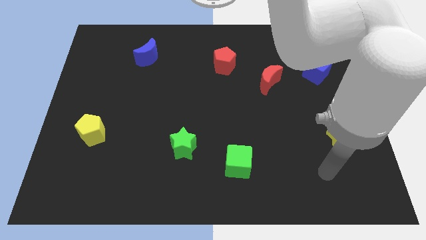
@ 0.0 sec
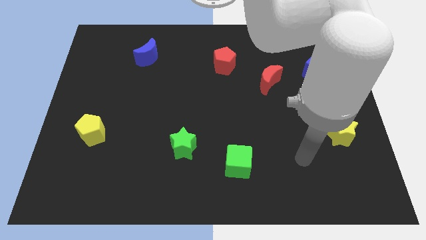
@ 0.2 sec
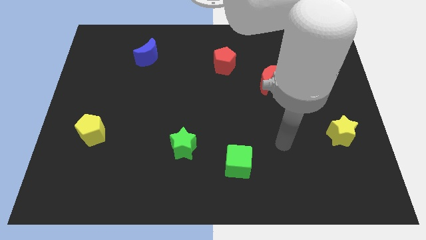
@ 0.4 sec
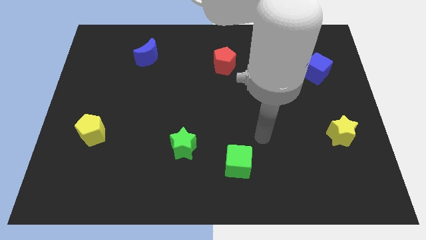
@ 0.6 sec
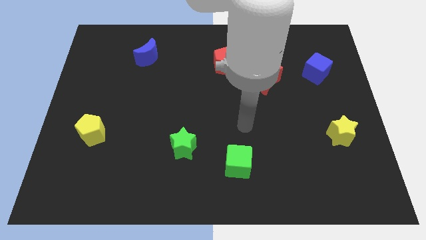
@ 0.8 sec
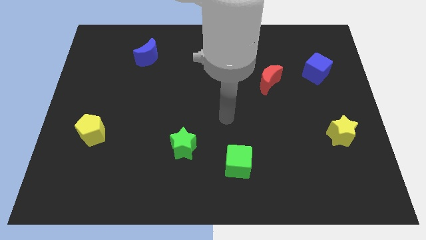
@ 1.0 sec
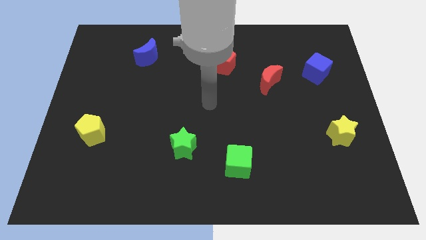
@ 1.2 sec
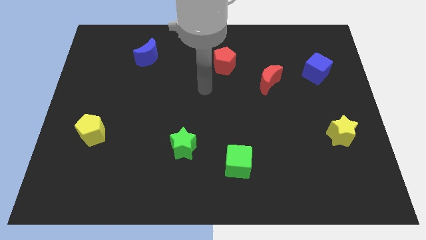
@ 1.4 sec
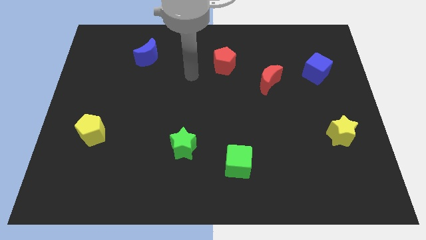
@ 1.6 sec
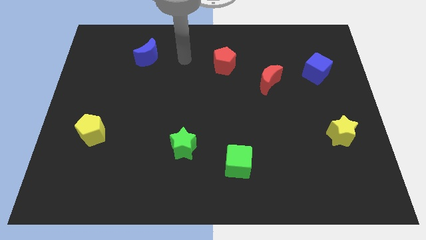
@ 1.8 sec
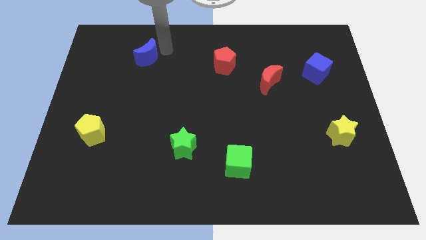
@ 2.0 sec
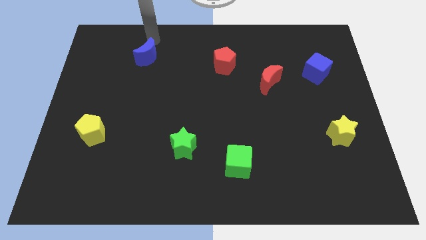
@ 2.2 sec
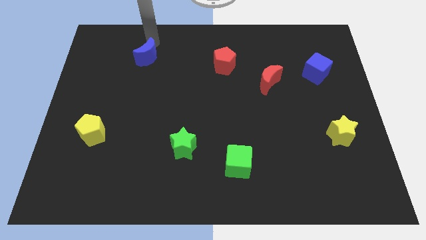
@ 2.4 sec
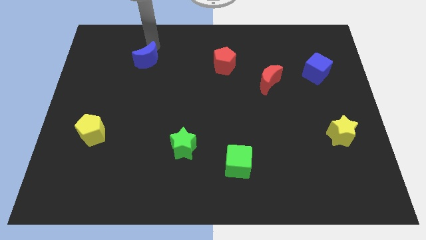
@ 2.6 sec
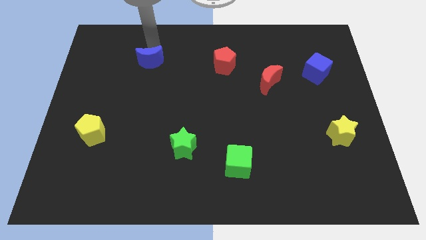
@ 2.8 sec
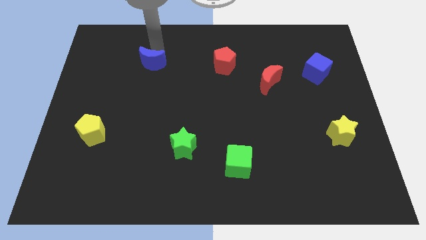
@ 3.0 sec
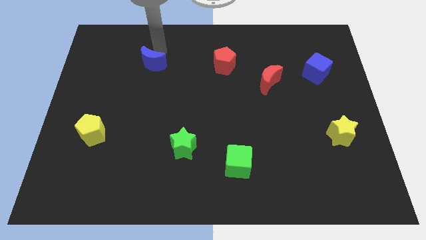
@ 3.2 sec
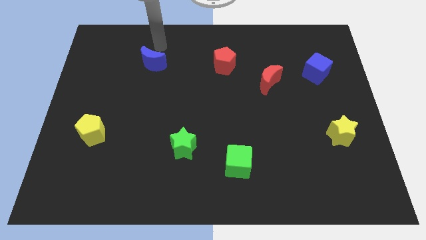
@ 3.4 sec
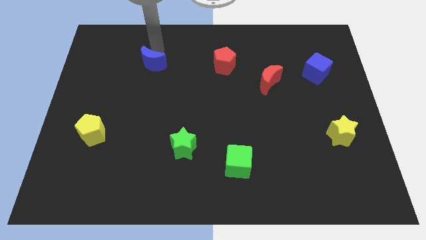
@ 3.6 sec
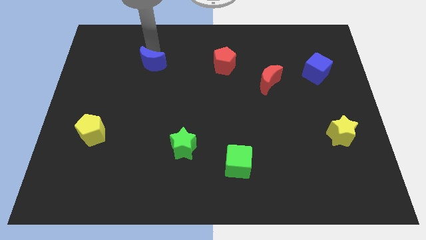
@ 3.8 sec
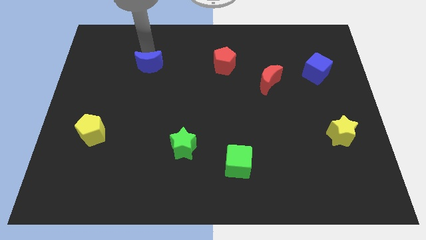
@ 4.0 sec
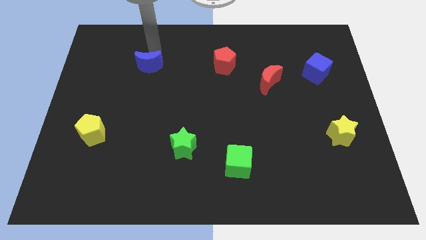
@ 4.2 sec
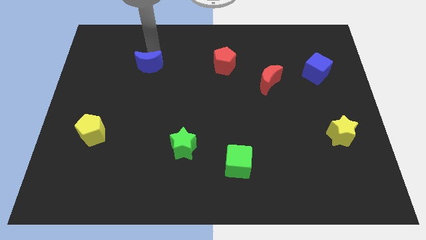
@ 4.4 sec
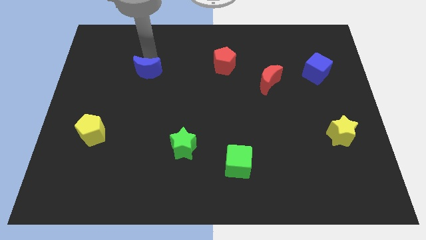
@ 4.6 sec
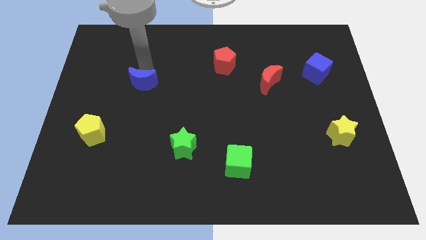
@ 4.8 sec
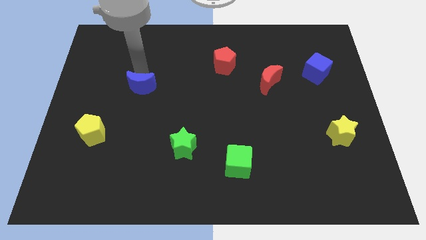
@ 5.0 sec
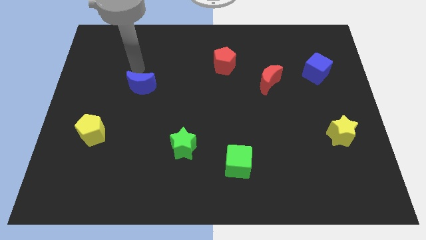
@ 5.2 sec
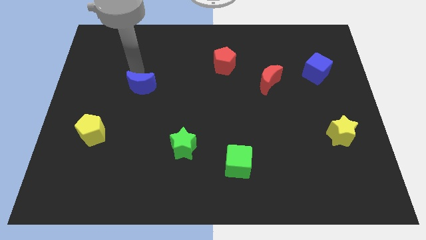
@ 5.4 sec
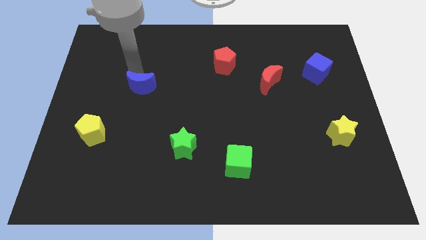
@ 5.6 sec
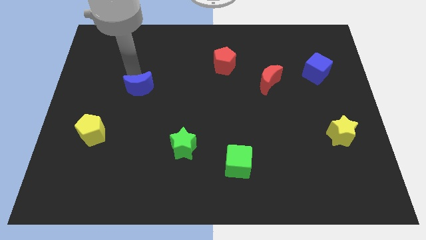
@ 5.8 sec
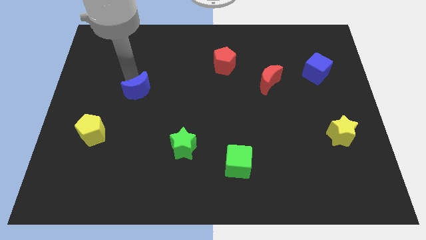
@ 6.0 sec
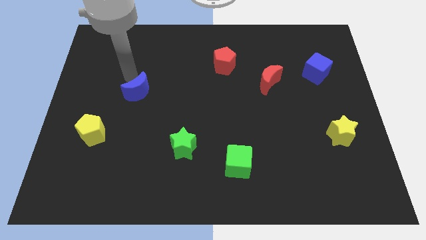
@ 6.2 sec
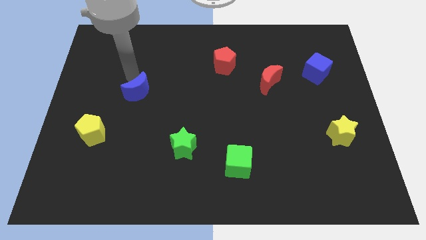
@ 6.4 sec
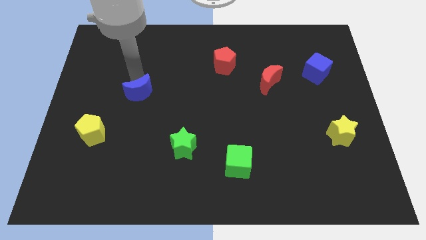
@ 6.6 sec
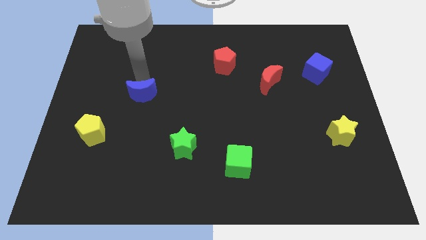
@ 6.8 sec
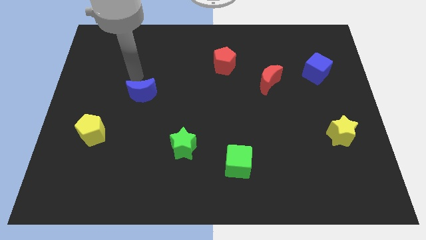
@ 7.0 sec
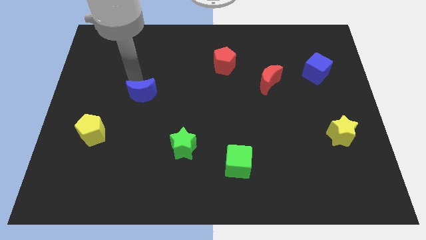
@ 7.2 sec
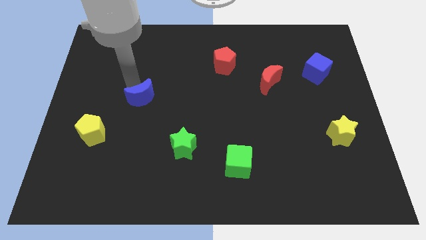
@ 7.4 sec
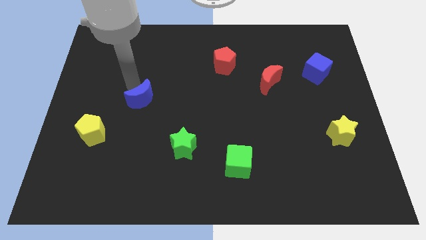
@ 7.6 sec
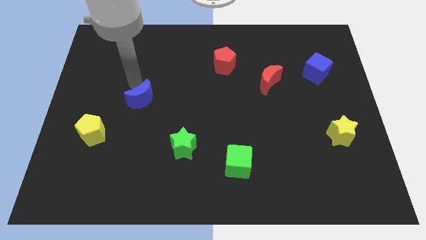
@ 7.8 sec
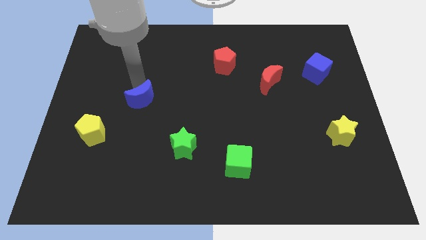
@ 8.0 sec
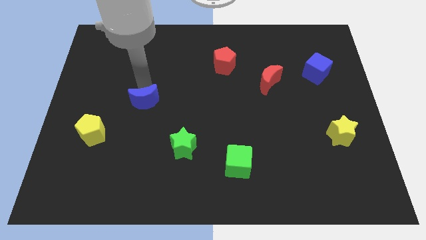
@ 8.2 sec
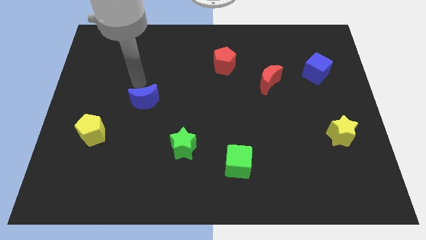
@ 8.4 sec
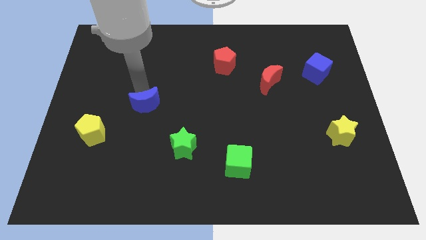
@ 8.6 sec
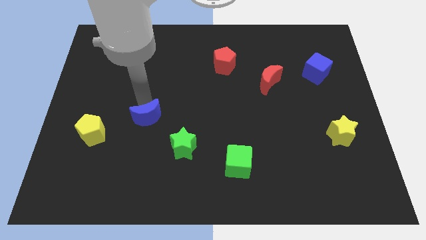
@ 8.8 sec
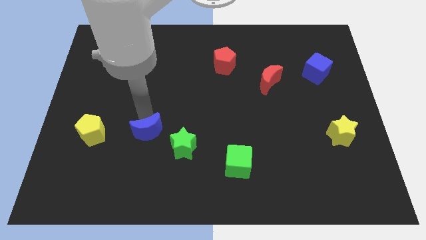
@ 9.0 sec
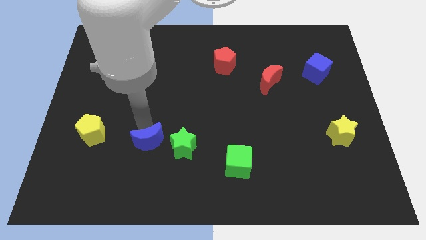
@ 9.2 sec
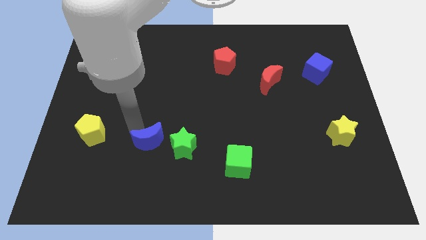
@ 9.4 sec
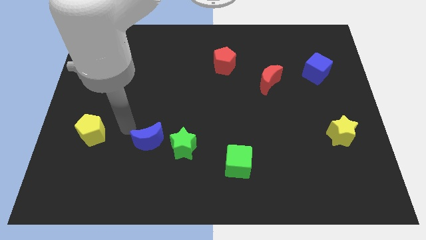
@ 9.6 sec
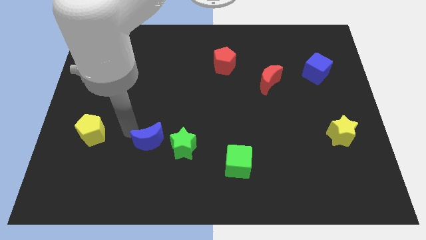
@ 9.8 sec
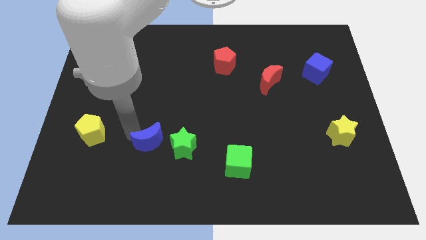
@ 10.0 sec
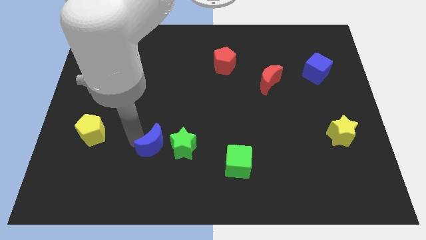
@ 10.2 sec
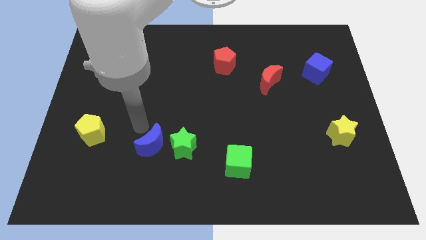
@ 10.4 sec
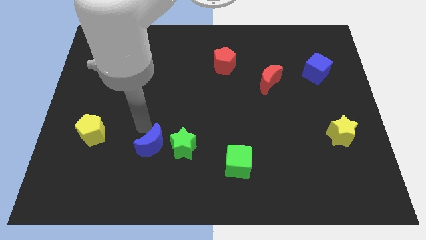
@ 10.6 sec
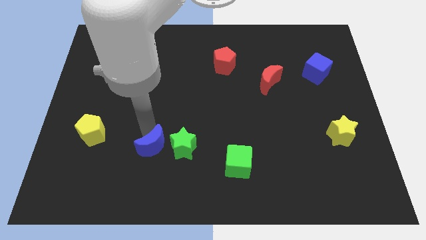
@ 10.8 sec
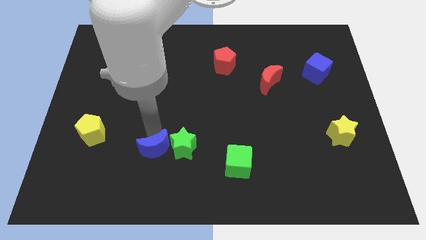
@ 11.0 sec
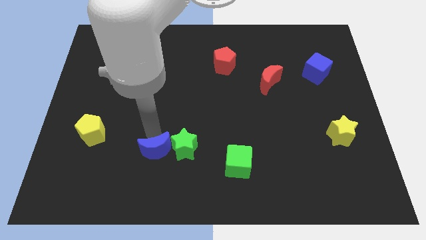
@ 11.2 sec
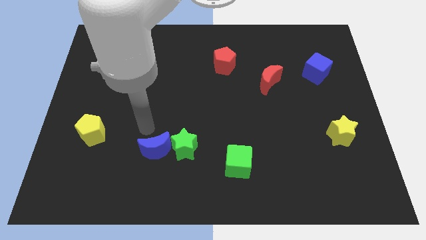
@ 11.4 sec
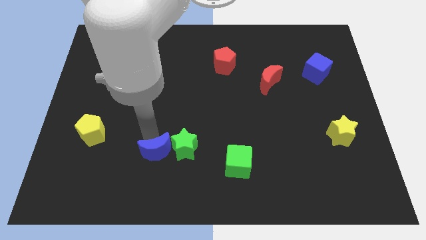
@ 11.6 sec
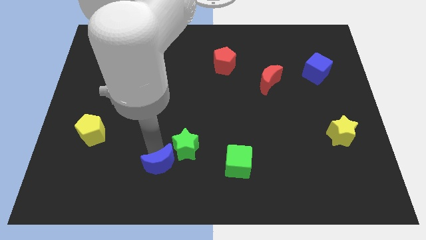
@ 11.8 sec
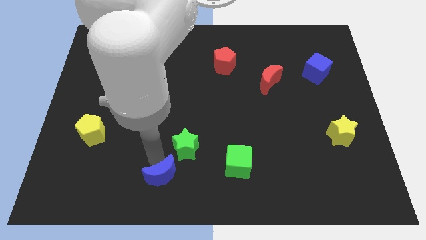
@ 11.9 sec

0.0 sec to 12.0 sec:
push the blue moon to the bottom side
